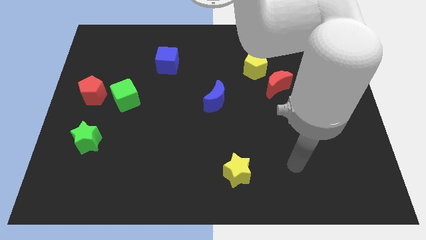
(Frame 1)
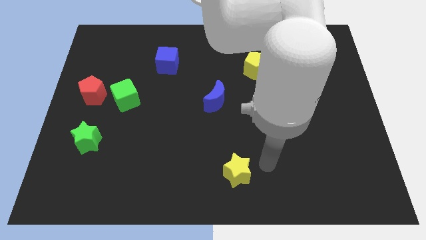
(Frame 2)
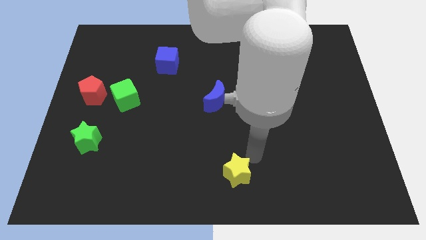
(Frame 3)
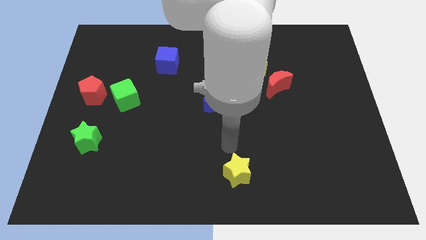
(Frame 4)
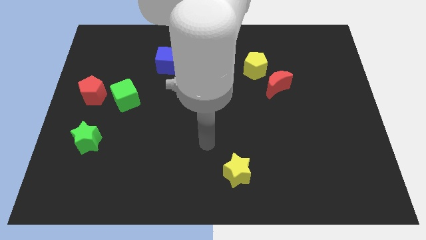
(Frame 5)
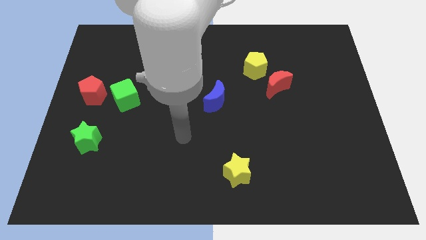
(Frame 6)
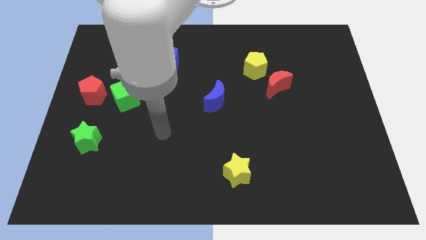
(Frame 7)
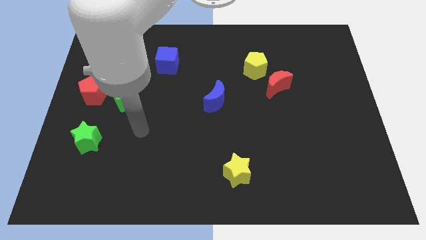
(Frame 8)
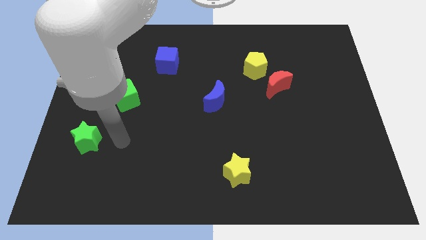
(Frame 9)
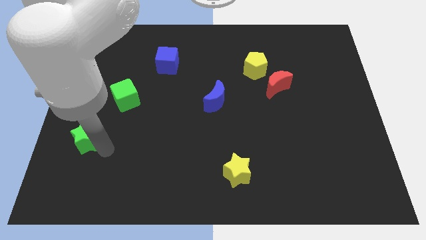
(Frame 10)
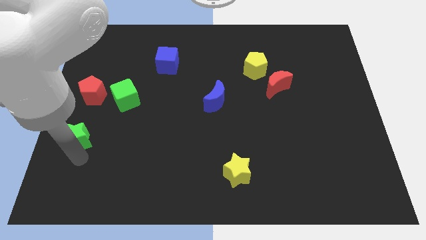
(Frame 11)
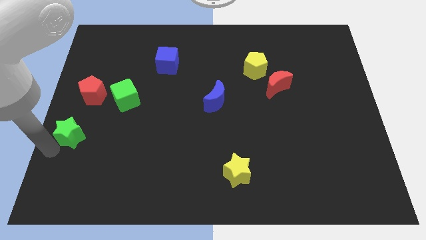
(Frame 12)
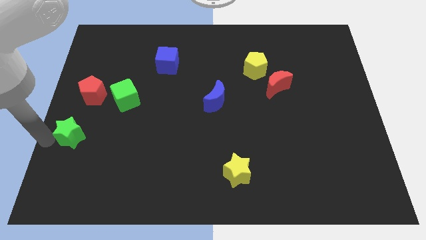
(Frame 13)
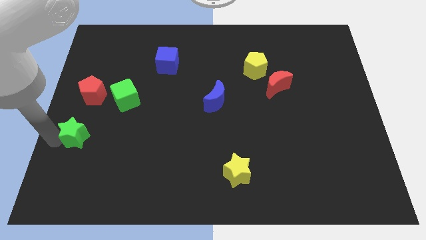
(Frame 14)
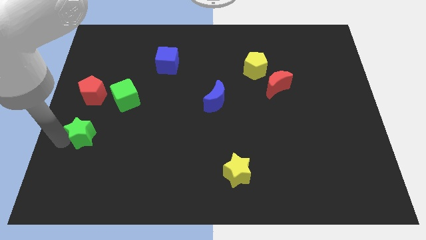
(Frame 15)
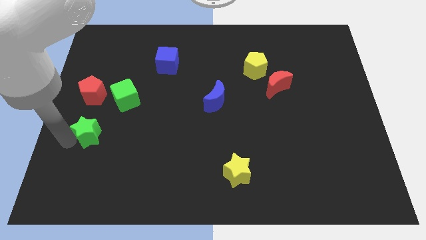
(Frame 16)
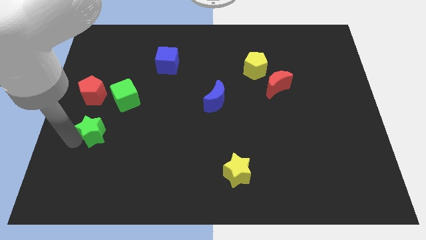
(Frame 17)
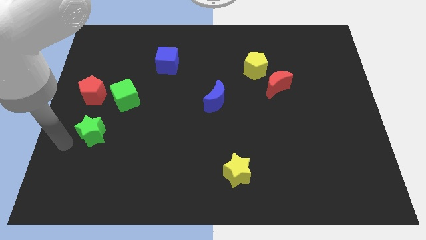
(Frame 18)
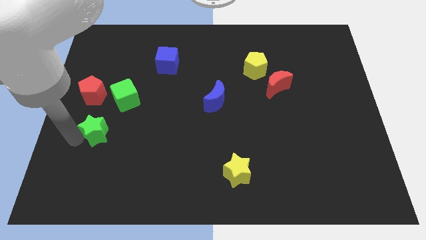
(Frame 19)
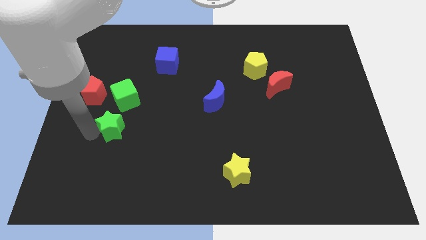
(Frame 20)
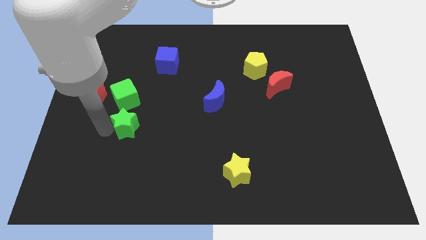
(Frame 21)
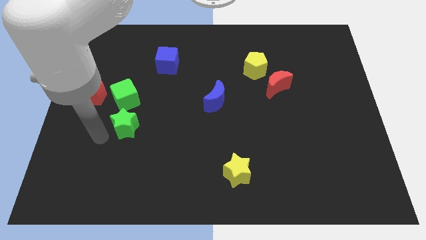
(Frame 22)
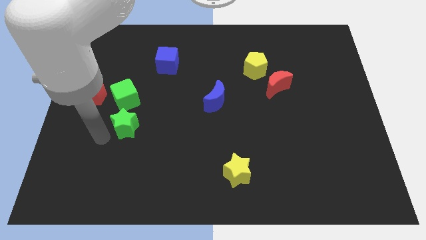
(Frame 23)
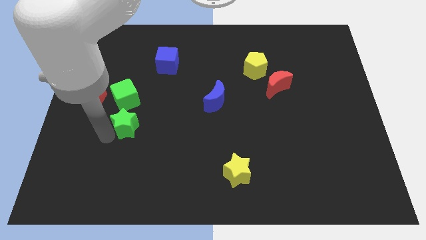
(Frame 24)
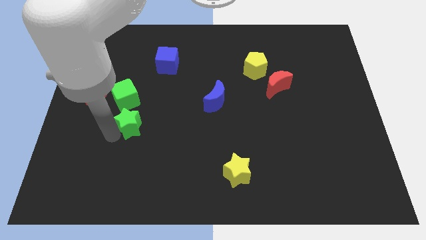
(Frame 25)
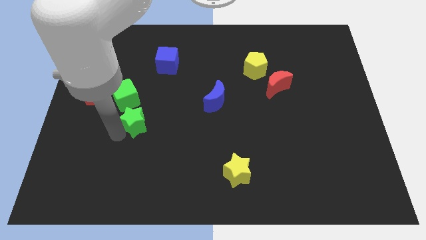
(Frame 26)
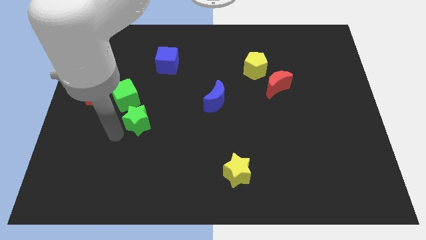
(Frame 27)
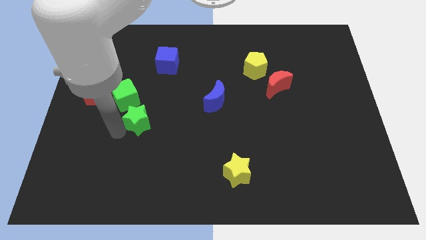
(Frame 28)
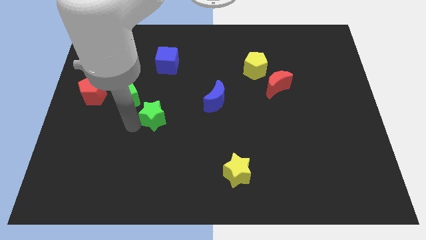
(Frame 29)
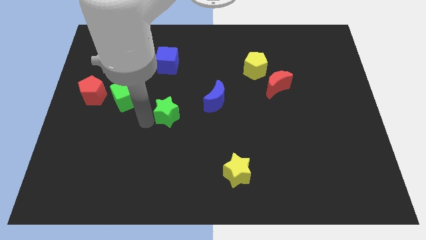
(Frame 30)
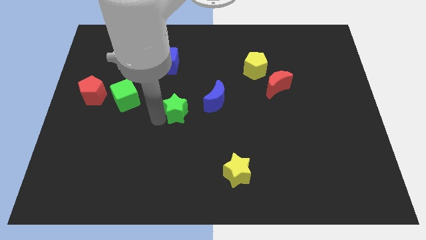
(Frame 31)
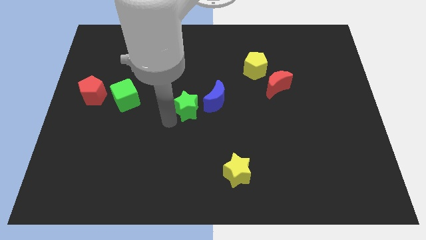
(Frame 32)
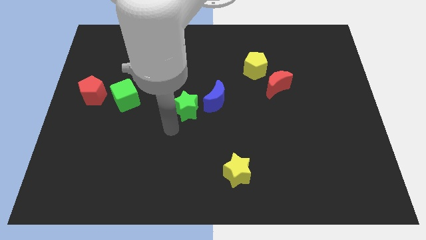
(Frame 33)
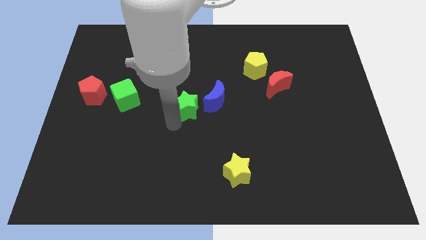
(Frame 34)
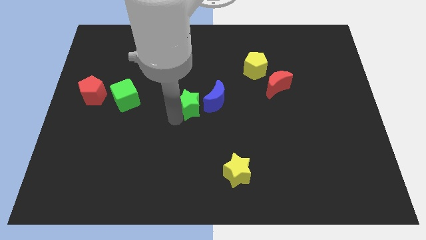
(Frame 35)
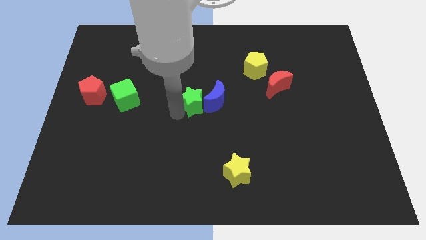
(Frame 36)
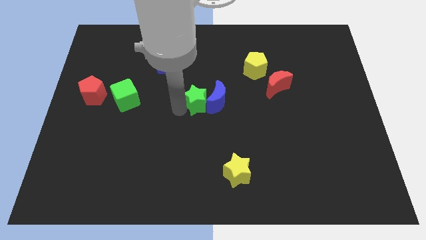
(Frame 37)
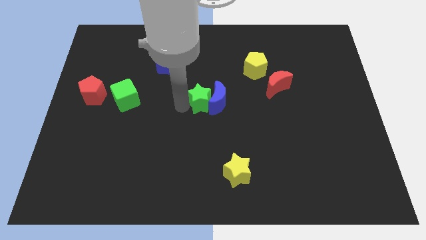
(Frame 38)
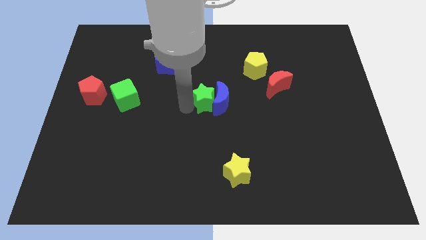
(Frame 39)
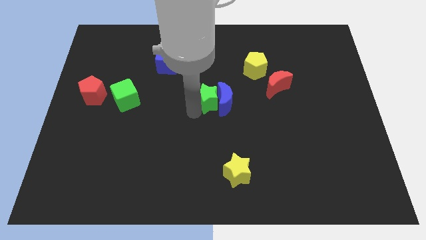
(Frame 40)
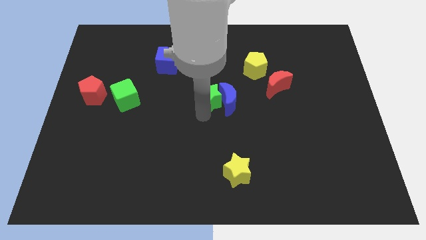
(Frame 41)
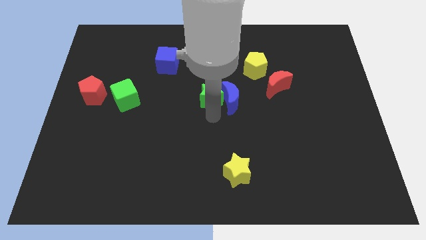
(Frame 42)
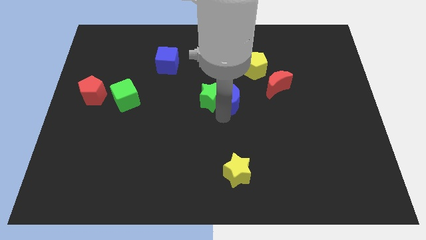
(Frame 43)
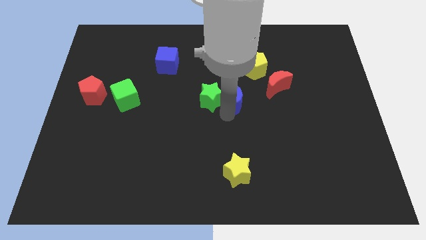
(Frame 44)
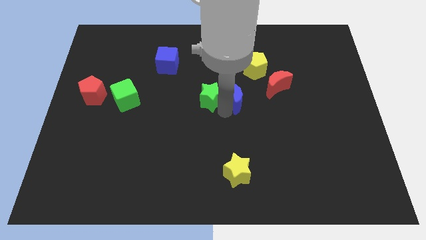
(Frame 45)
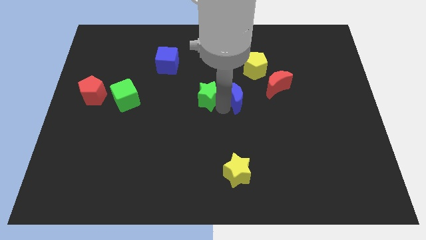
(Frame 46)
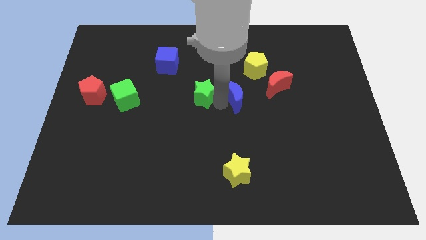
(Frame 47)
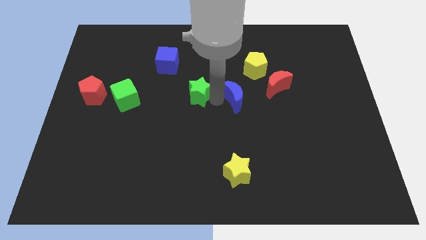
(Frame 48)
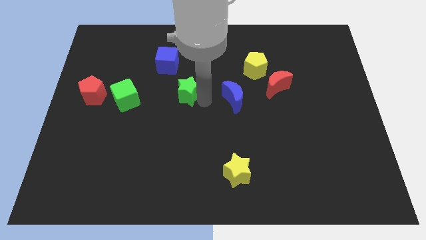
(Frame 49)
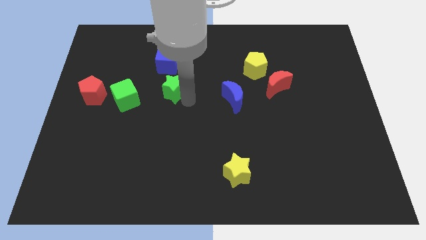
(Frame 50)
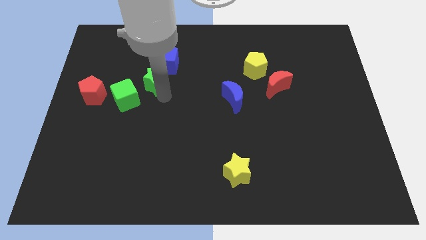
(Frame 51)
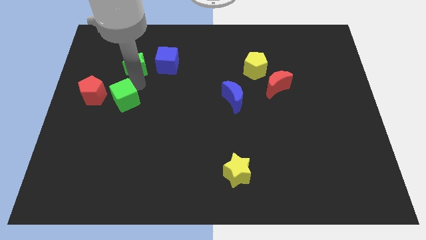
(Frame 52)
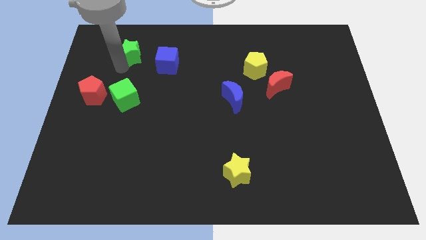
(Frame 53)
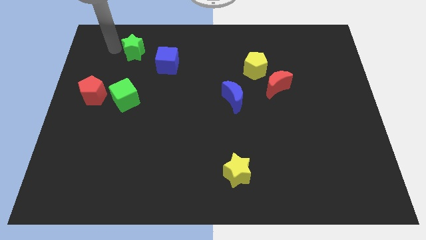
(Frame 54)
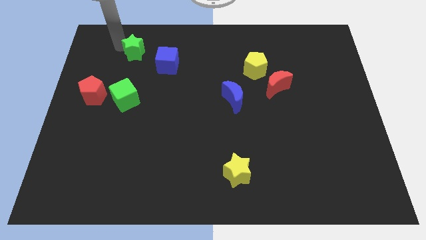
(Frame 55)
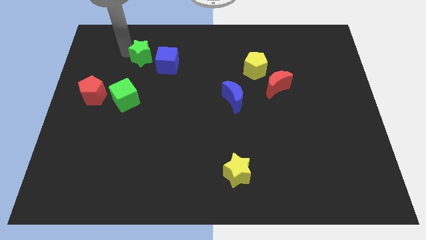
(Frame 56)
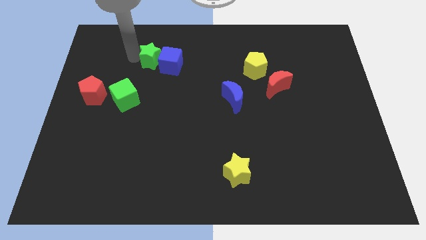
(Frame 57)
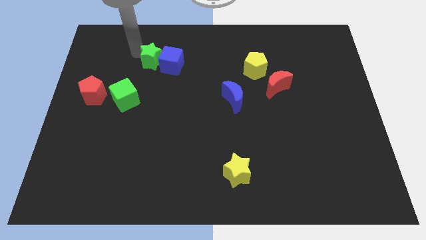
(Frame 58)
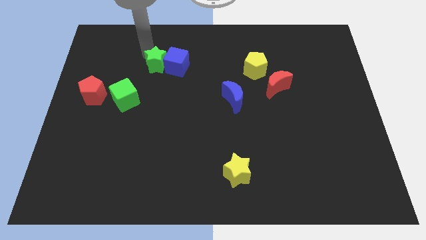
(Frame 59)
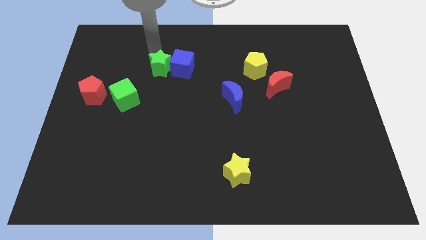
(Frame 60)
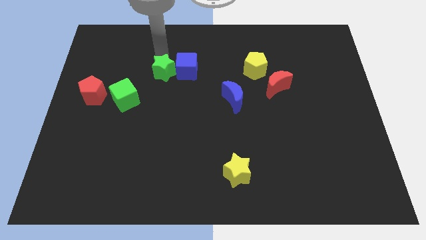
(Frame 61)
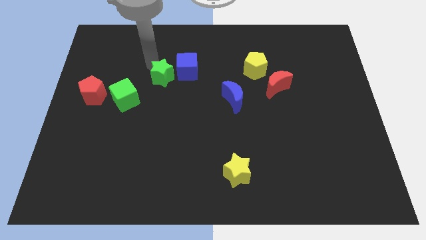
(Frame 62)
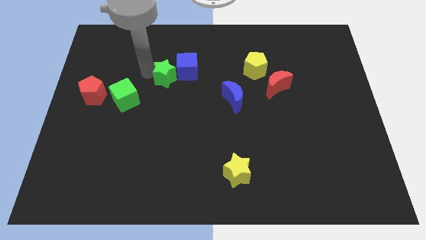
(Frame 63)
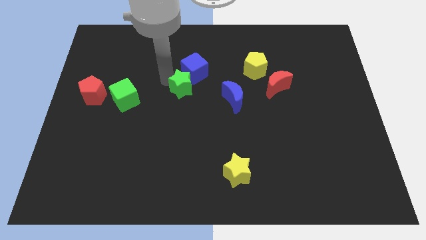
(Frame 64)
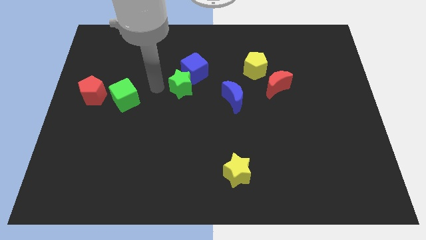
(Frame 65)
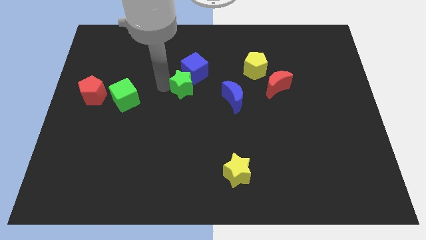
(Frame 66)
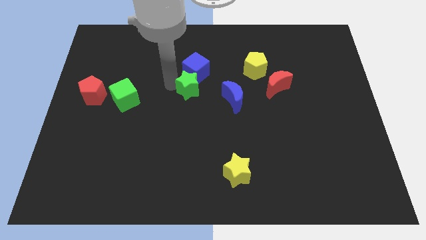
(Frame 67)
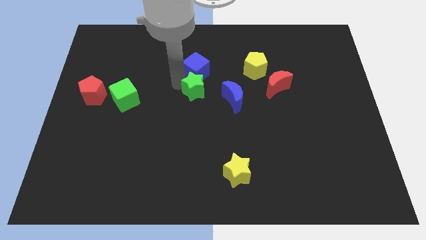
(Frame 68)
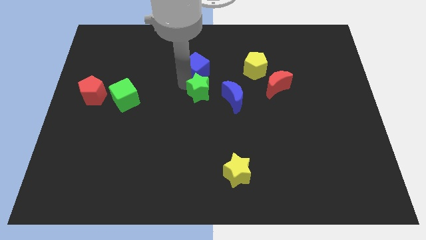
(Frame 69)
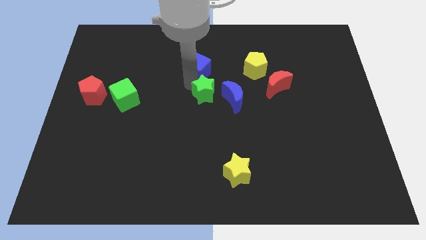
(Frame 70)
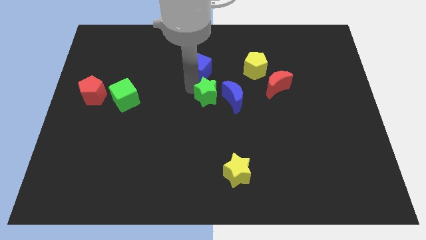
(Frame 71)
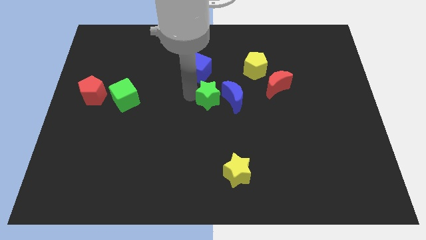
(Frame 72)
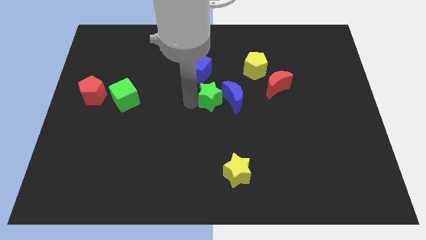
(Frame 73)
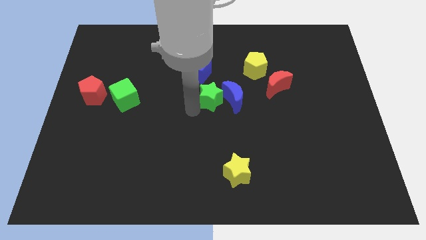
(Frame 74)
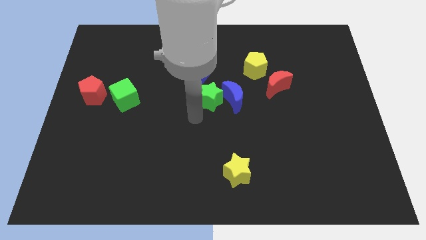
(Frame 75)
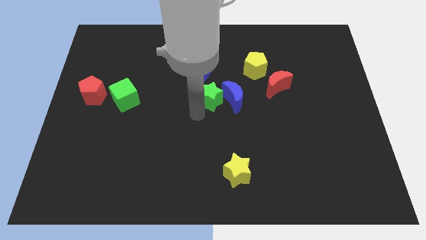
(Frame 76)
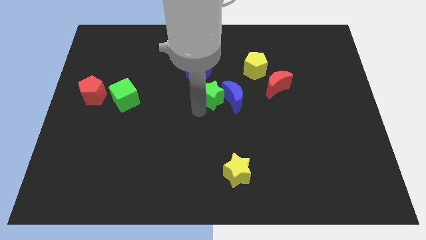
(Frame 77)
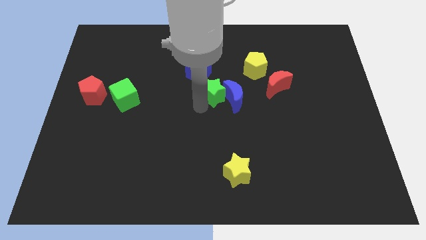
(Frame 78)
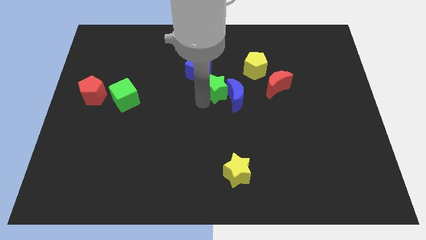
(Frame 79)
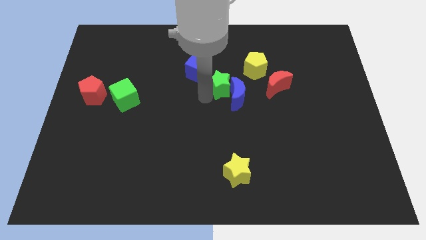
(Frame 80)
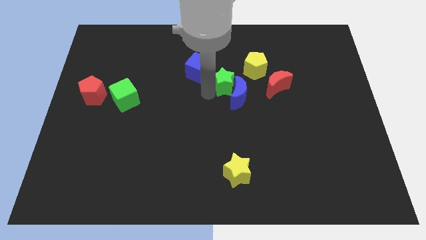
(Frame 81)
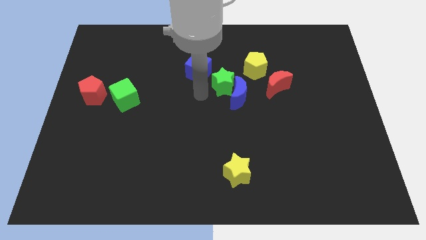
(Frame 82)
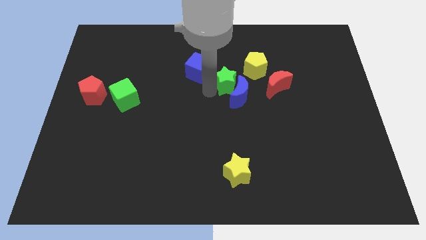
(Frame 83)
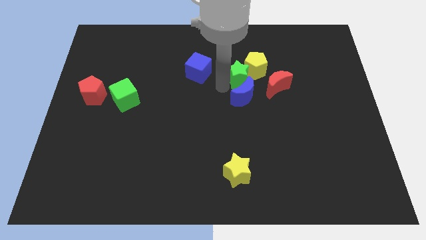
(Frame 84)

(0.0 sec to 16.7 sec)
put the green star next to the yellow pentagon
